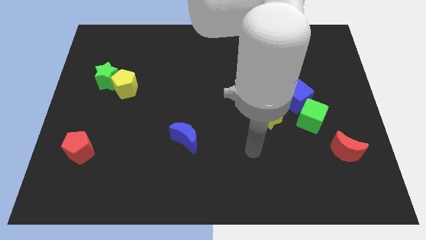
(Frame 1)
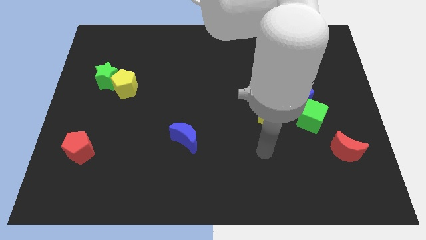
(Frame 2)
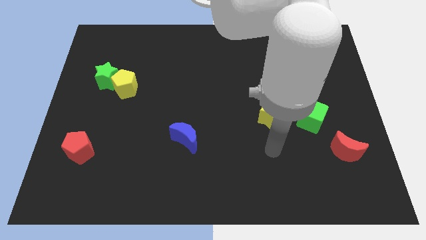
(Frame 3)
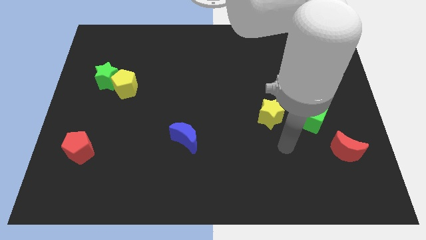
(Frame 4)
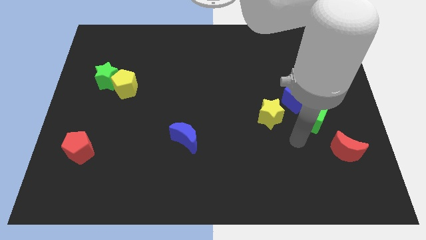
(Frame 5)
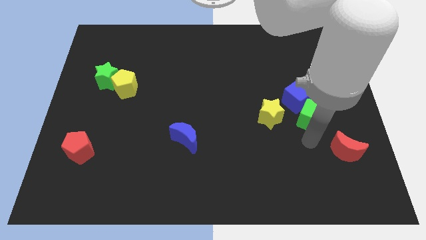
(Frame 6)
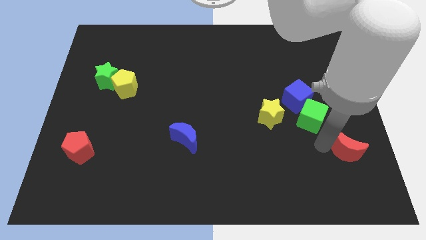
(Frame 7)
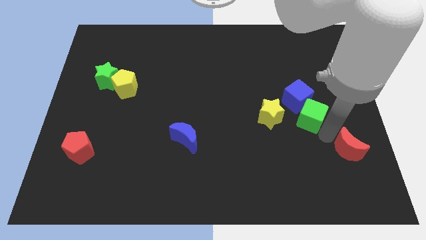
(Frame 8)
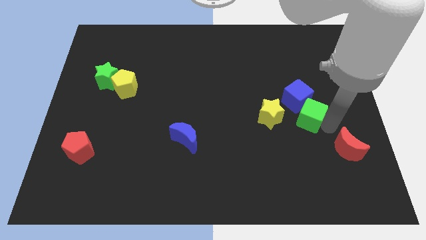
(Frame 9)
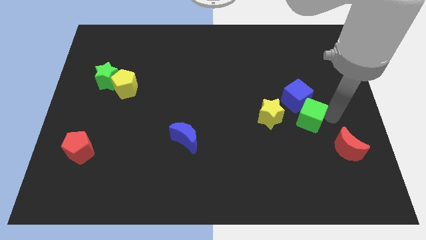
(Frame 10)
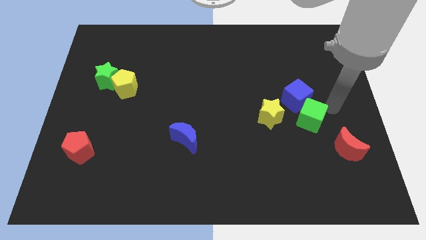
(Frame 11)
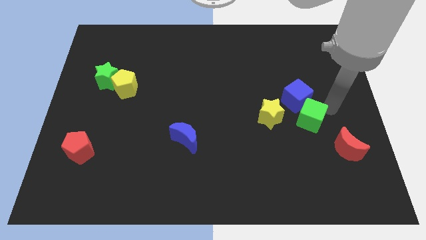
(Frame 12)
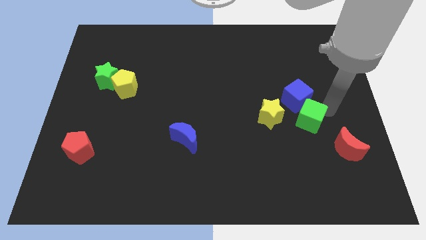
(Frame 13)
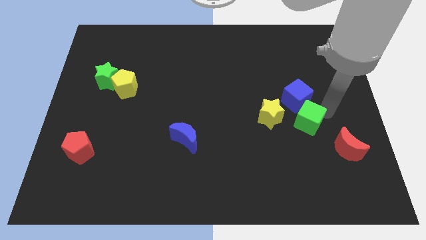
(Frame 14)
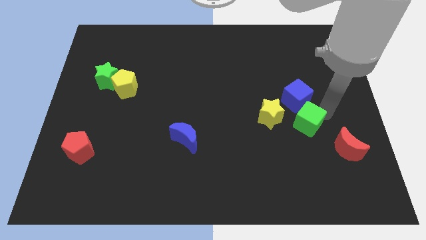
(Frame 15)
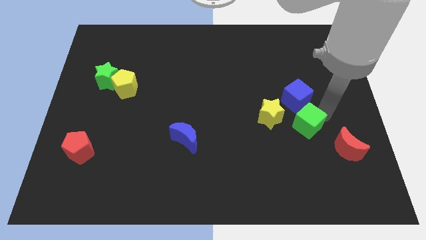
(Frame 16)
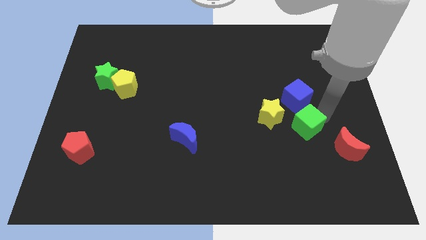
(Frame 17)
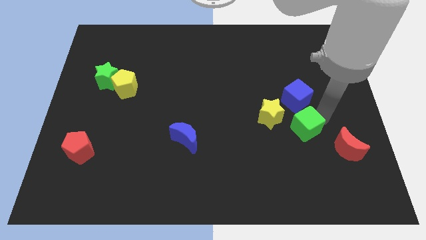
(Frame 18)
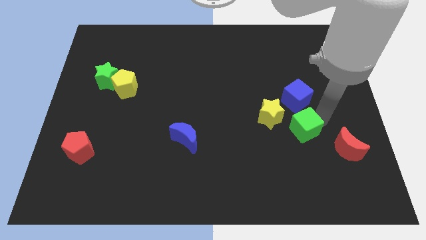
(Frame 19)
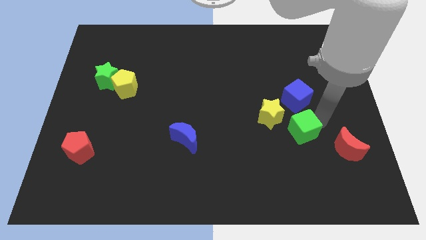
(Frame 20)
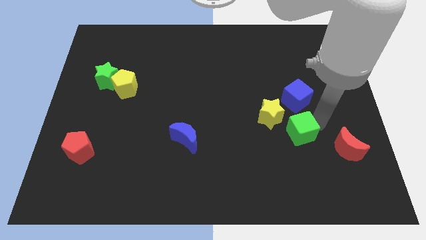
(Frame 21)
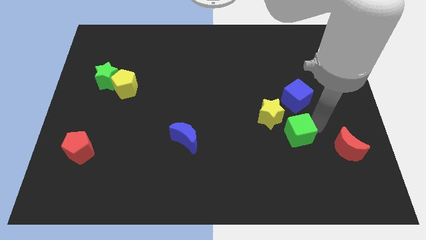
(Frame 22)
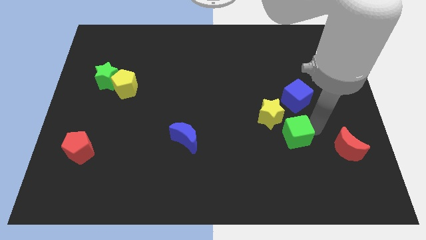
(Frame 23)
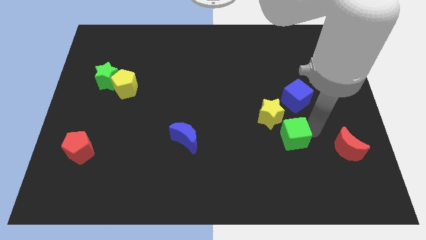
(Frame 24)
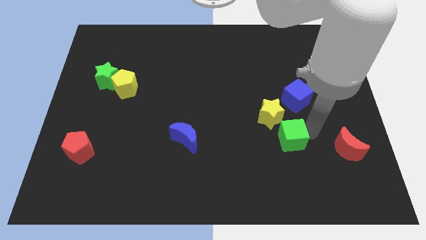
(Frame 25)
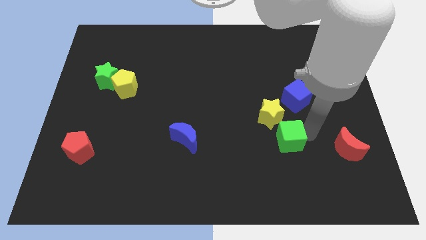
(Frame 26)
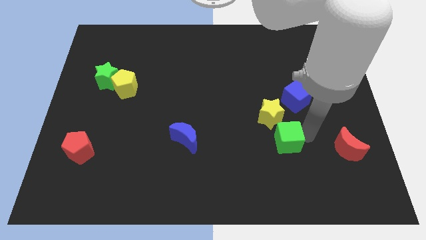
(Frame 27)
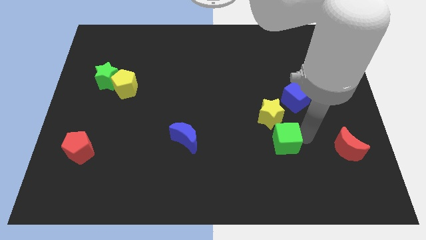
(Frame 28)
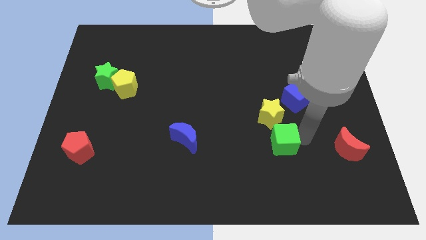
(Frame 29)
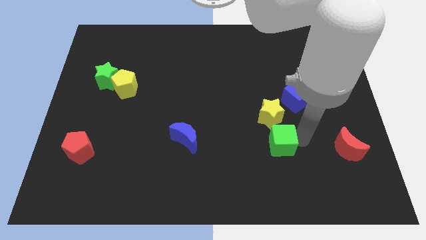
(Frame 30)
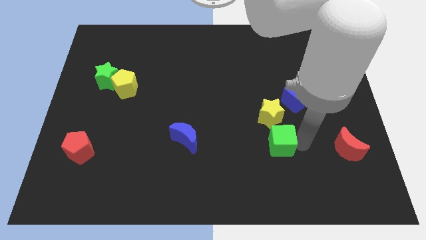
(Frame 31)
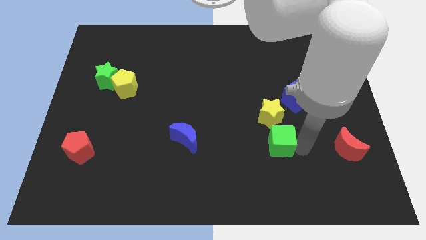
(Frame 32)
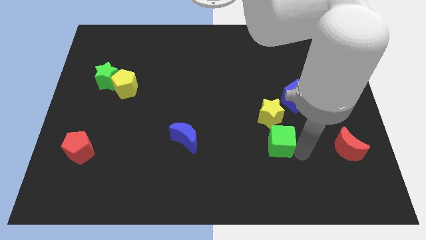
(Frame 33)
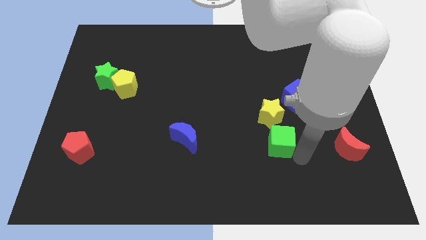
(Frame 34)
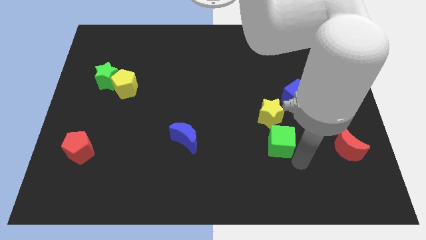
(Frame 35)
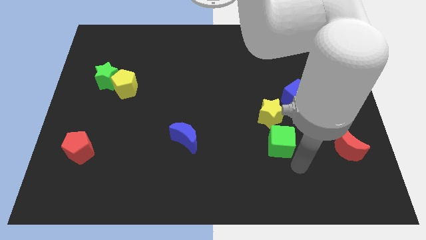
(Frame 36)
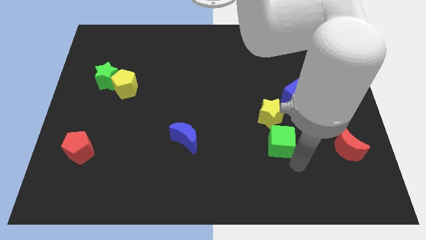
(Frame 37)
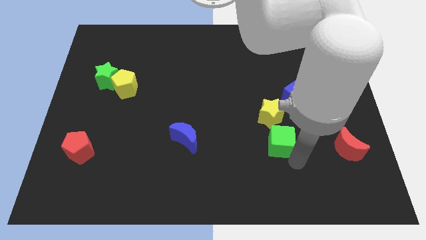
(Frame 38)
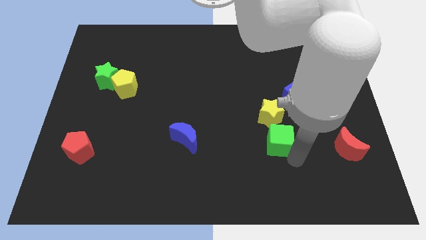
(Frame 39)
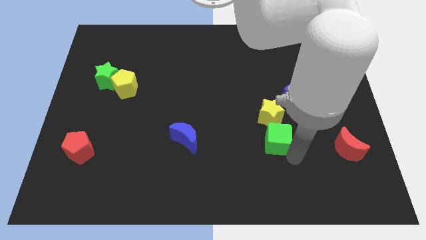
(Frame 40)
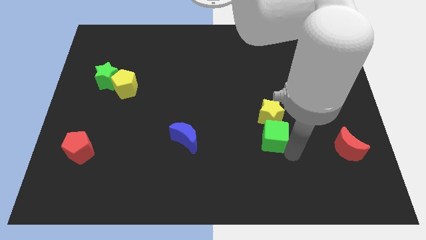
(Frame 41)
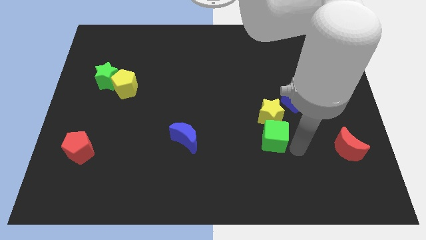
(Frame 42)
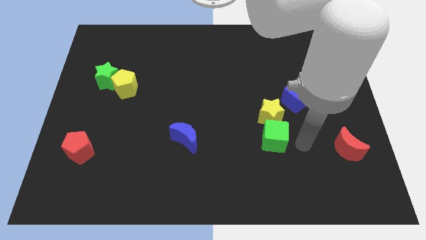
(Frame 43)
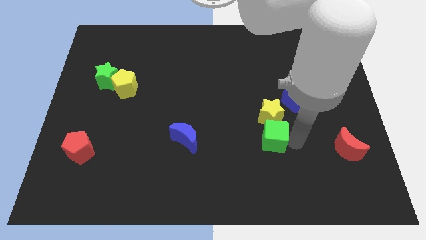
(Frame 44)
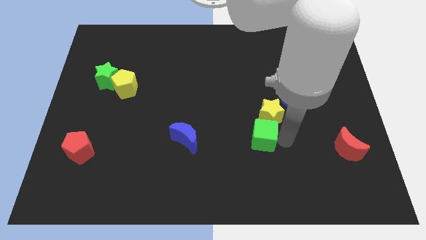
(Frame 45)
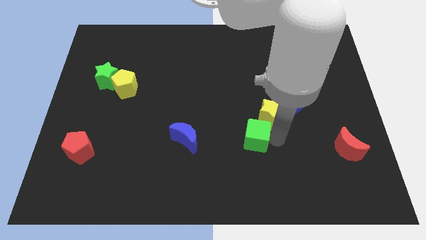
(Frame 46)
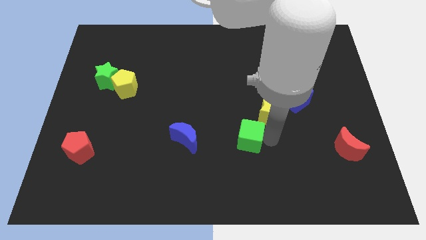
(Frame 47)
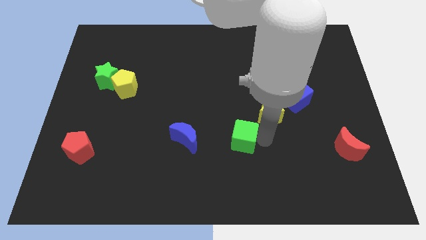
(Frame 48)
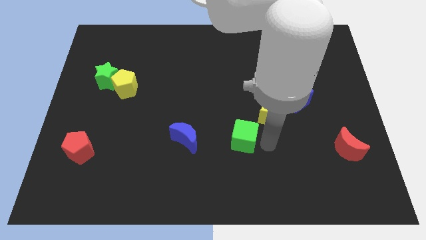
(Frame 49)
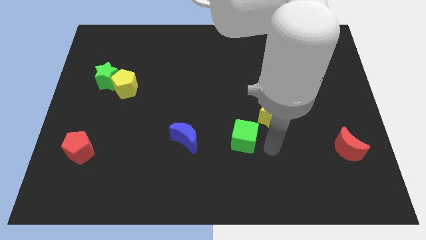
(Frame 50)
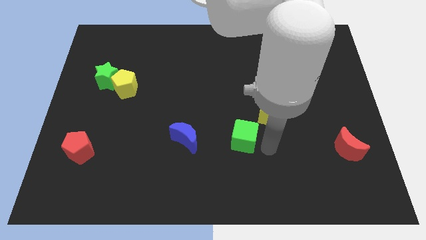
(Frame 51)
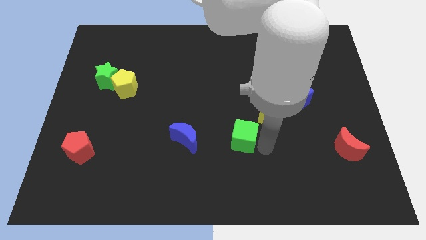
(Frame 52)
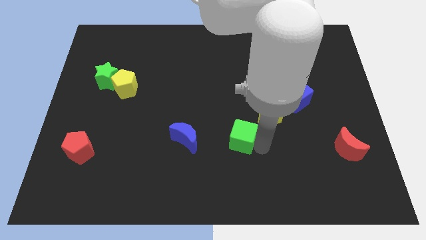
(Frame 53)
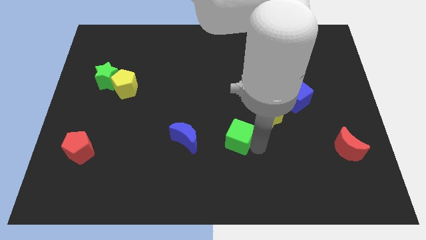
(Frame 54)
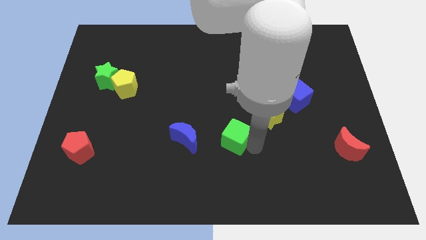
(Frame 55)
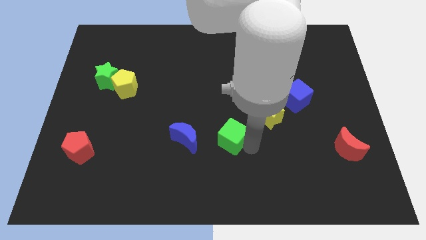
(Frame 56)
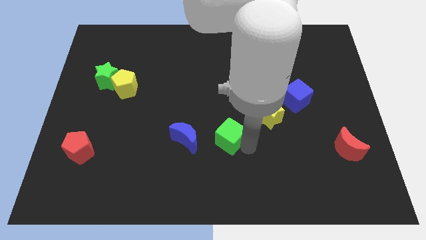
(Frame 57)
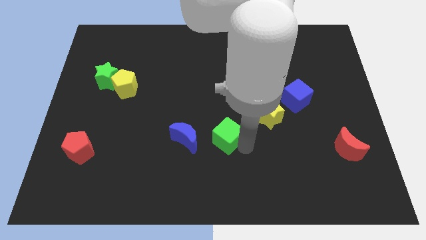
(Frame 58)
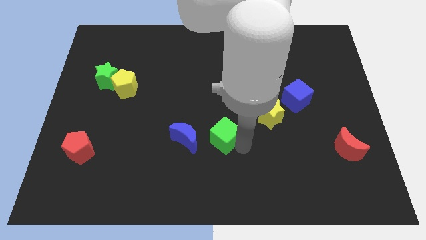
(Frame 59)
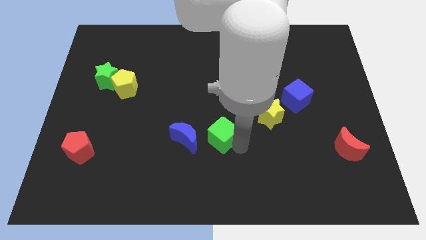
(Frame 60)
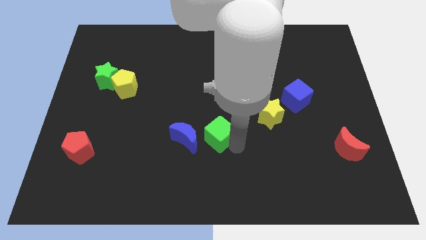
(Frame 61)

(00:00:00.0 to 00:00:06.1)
move the green cube to the left

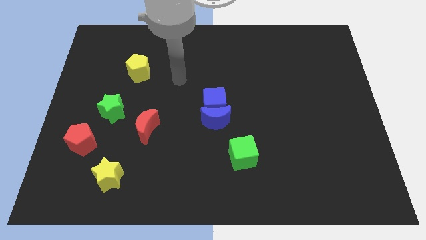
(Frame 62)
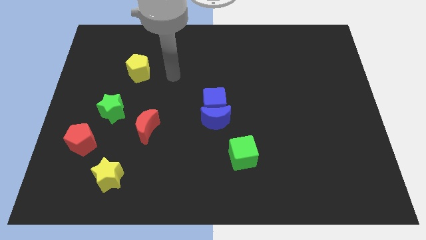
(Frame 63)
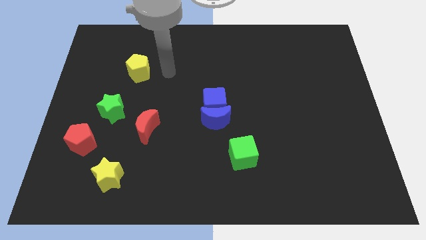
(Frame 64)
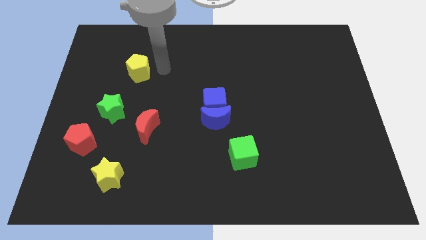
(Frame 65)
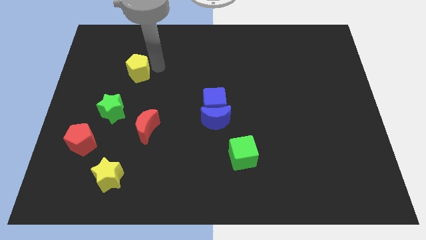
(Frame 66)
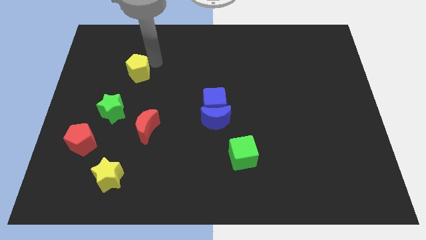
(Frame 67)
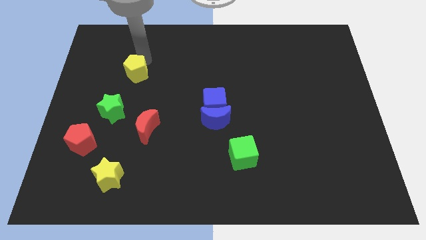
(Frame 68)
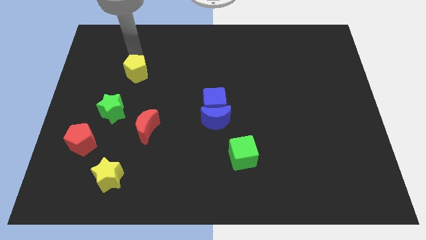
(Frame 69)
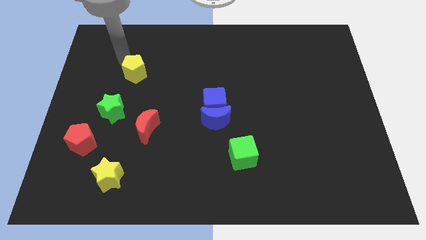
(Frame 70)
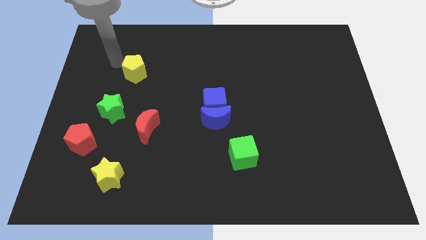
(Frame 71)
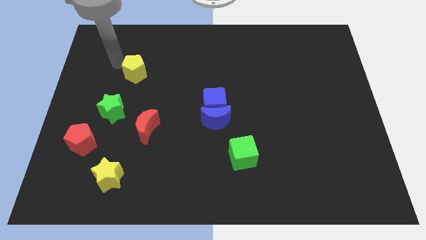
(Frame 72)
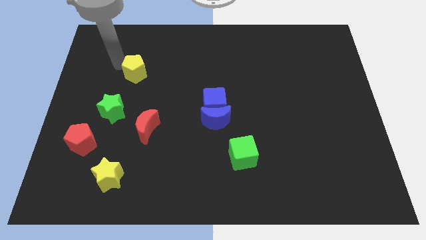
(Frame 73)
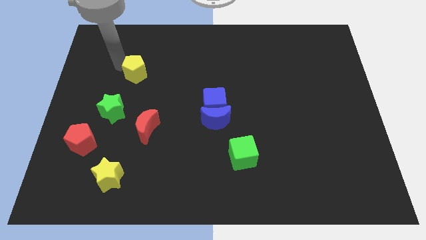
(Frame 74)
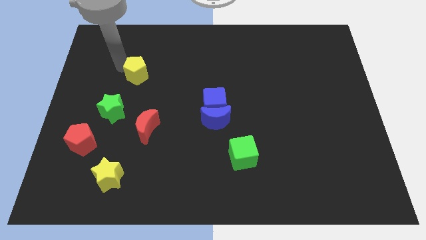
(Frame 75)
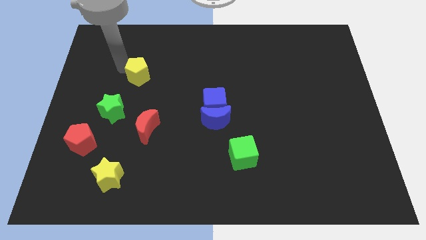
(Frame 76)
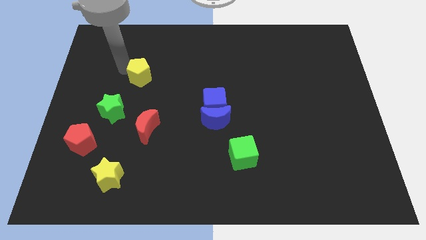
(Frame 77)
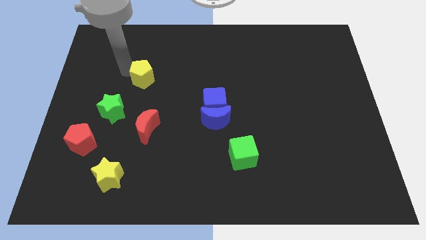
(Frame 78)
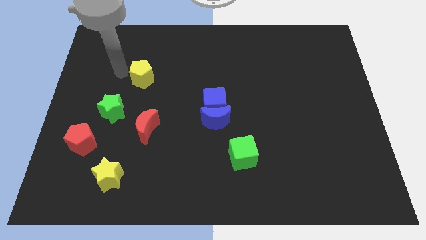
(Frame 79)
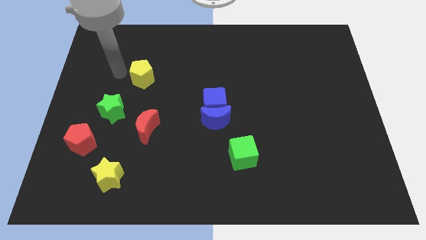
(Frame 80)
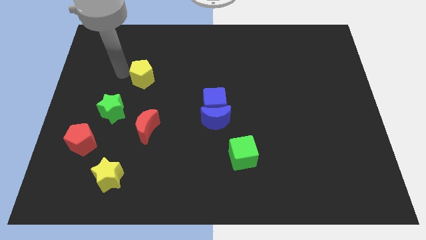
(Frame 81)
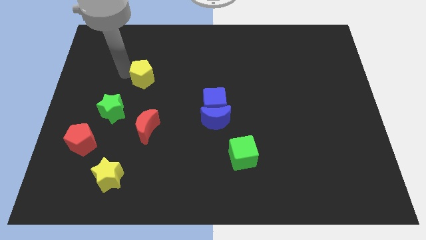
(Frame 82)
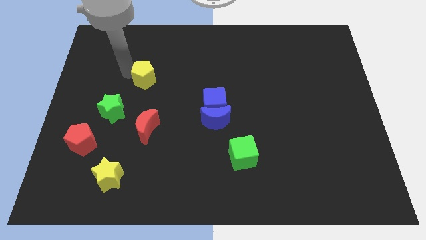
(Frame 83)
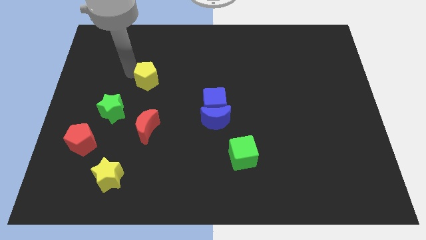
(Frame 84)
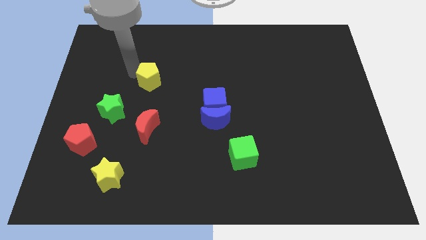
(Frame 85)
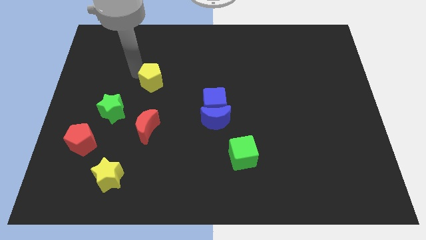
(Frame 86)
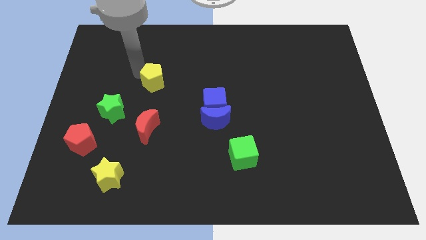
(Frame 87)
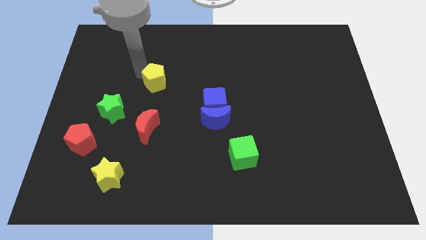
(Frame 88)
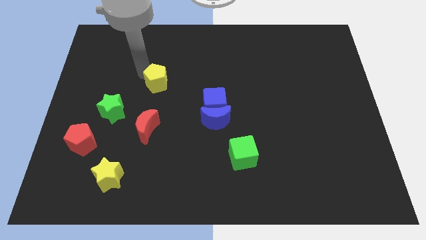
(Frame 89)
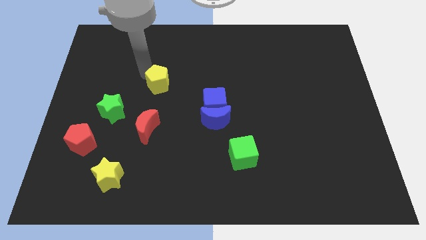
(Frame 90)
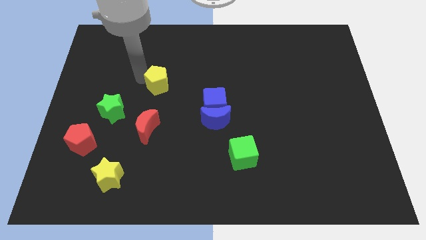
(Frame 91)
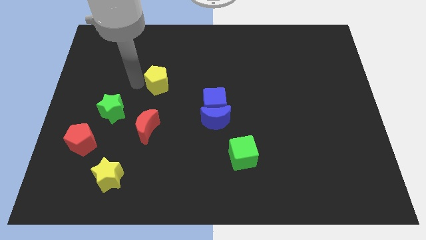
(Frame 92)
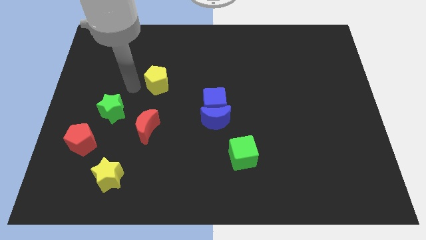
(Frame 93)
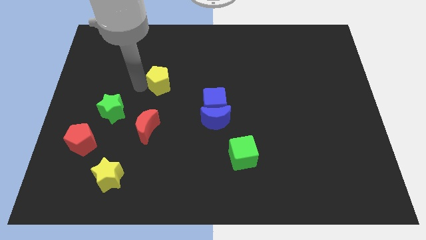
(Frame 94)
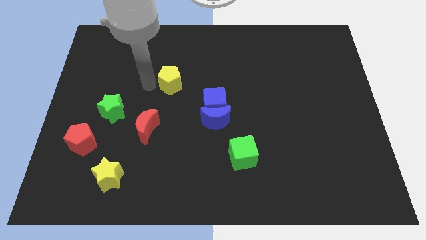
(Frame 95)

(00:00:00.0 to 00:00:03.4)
push the yellow pentagon a little to the right
